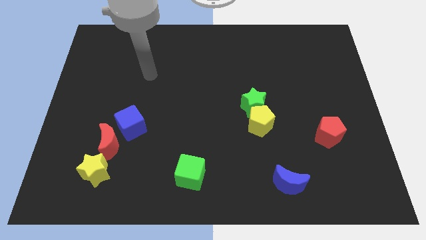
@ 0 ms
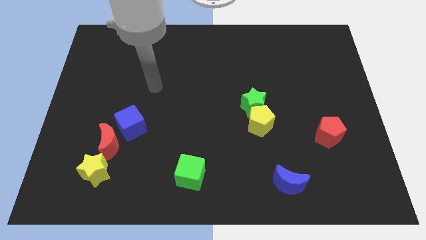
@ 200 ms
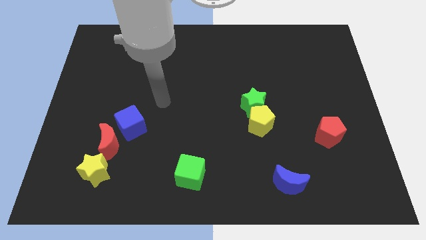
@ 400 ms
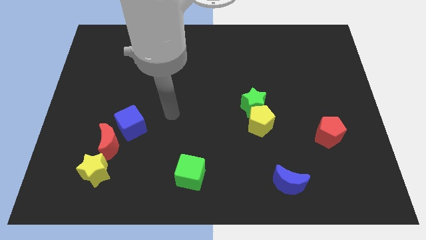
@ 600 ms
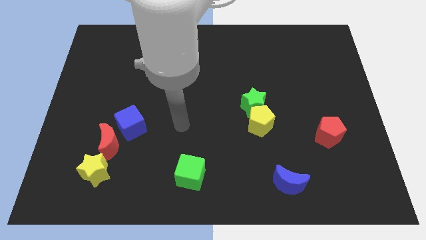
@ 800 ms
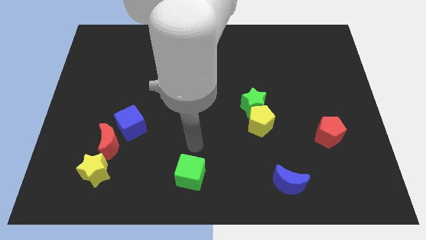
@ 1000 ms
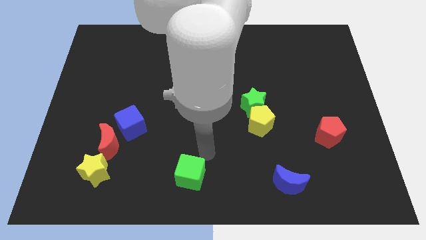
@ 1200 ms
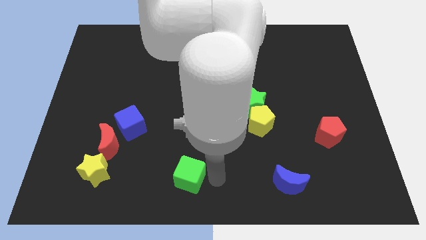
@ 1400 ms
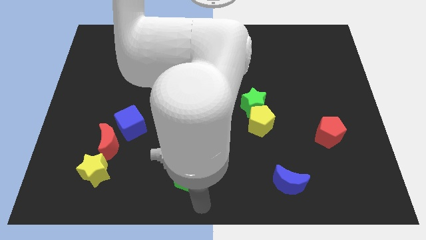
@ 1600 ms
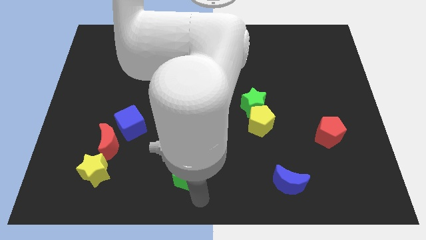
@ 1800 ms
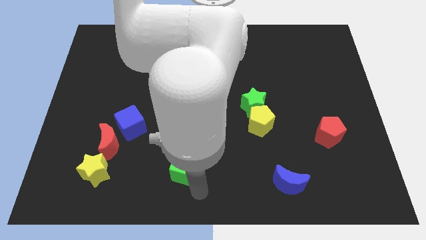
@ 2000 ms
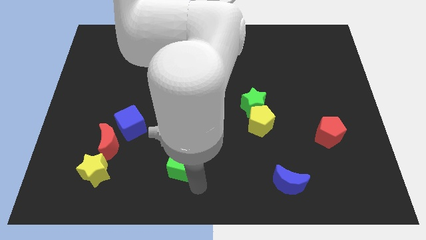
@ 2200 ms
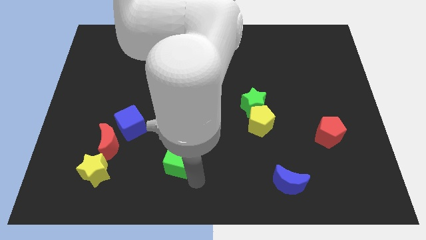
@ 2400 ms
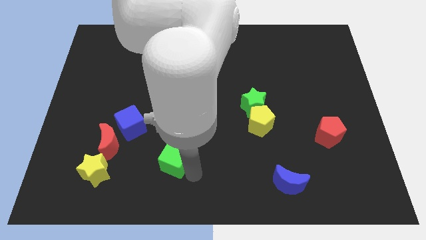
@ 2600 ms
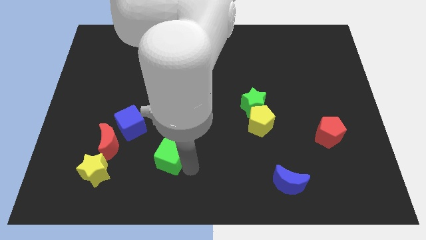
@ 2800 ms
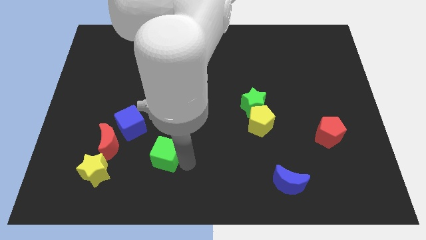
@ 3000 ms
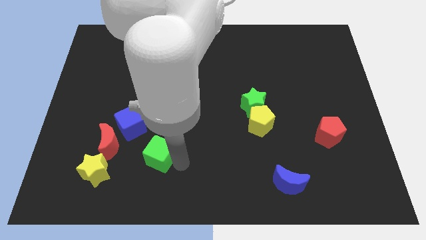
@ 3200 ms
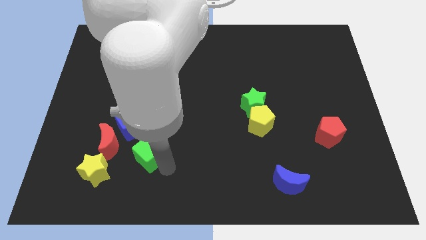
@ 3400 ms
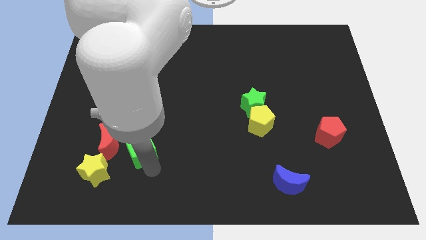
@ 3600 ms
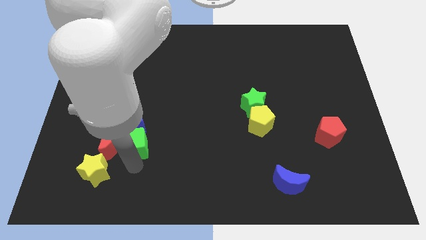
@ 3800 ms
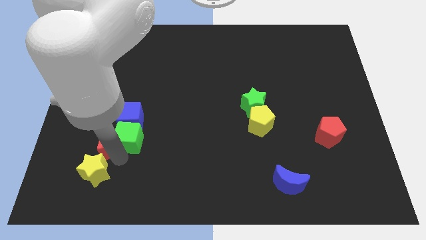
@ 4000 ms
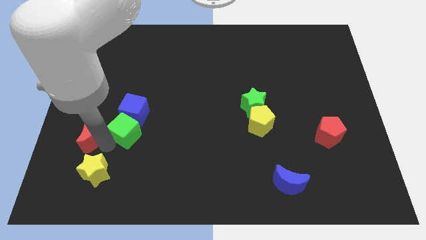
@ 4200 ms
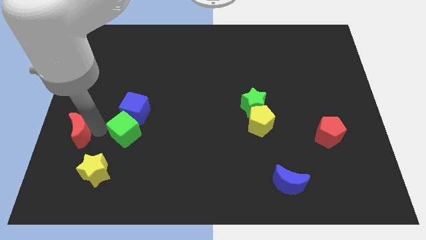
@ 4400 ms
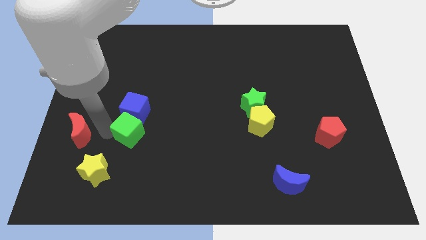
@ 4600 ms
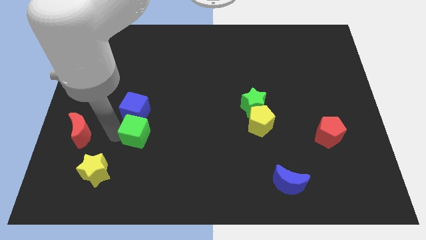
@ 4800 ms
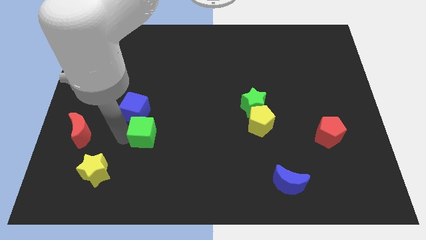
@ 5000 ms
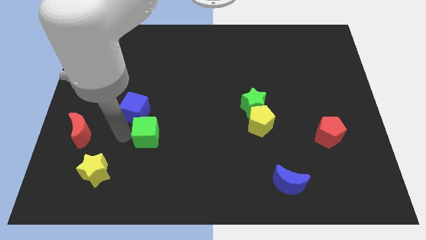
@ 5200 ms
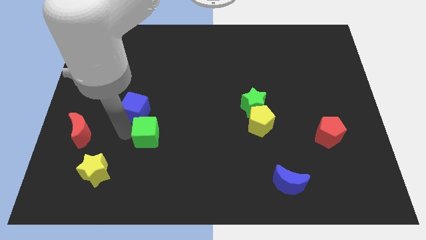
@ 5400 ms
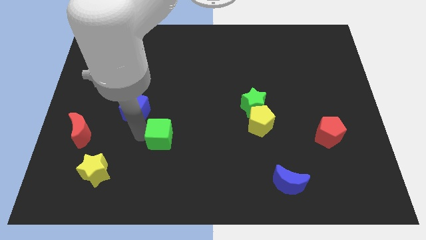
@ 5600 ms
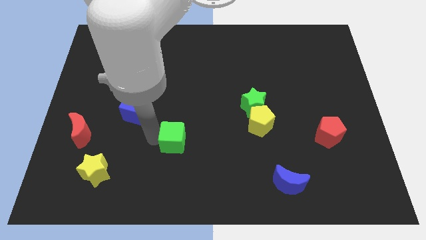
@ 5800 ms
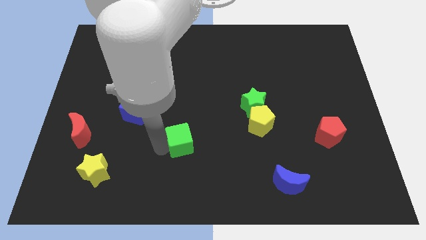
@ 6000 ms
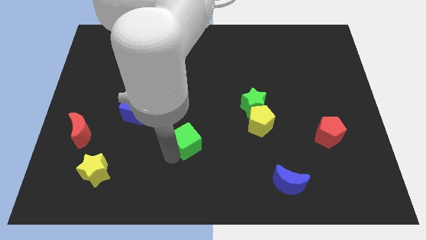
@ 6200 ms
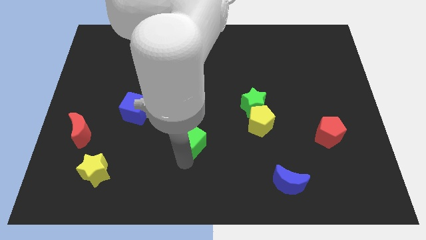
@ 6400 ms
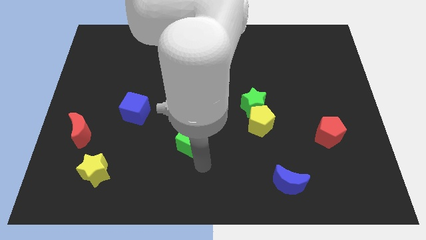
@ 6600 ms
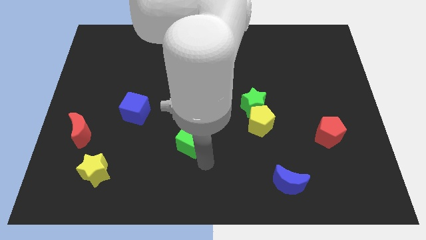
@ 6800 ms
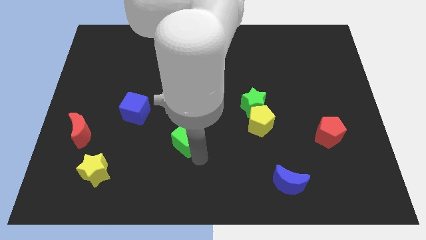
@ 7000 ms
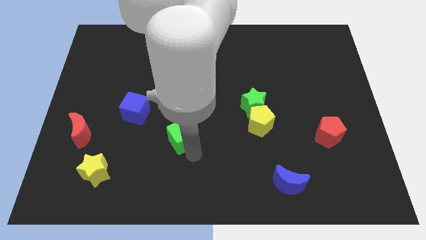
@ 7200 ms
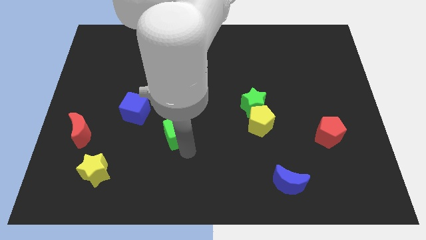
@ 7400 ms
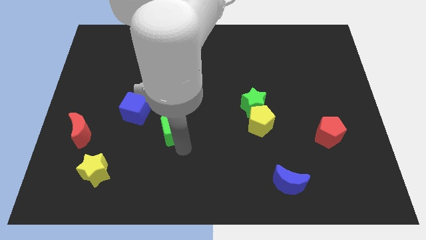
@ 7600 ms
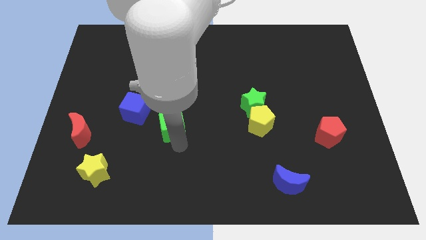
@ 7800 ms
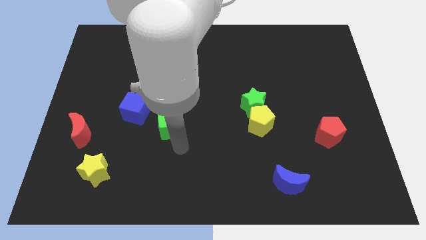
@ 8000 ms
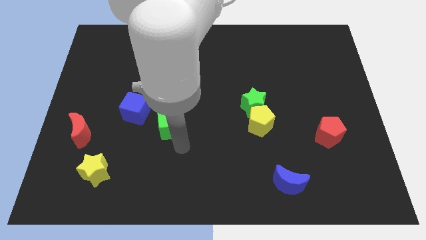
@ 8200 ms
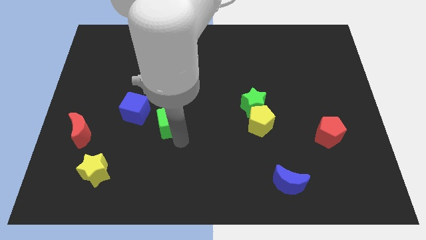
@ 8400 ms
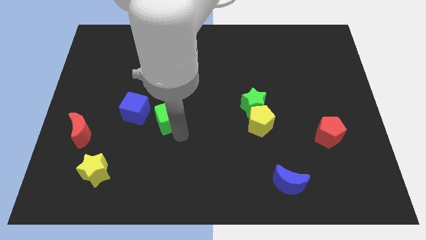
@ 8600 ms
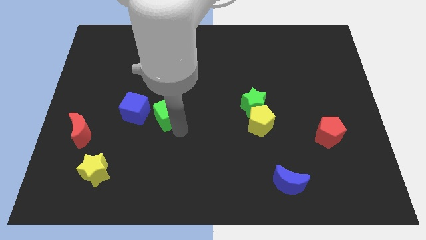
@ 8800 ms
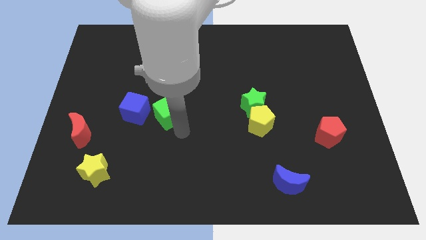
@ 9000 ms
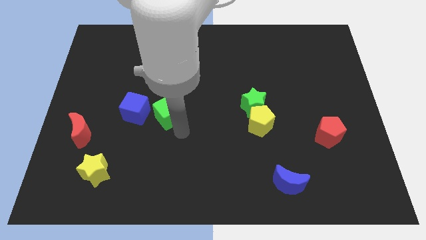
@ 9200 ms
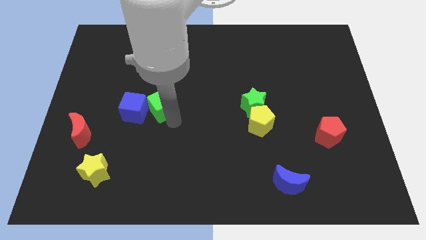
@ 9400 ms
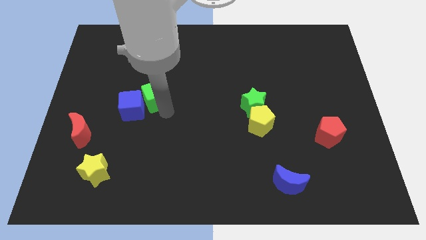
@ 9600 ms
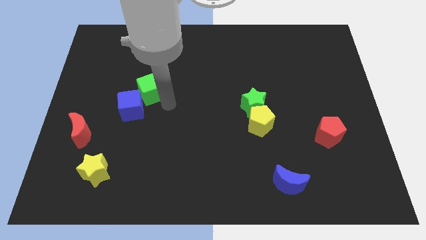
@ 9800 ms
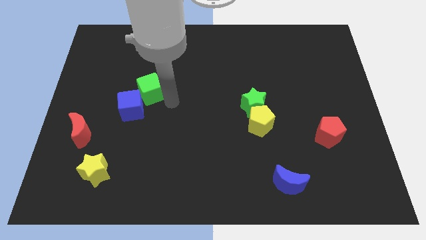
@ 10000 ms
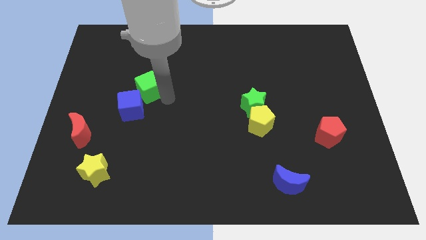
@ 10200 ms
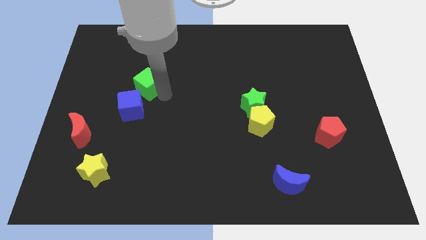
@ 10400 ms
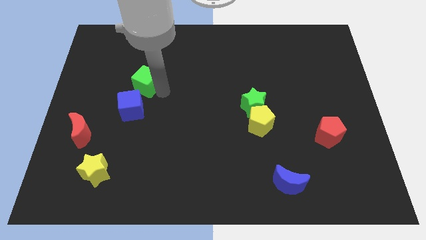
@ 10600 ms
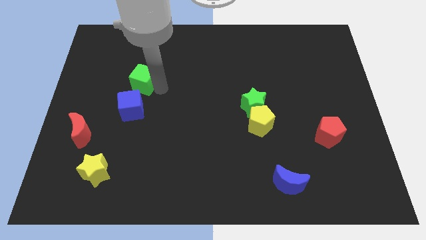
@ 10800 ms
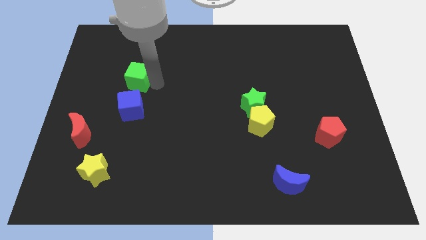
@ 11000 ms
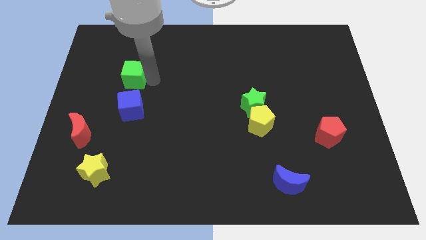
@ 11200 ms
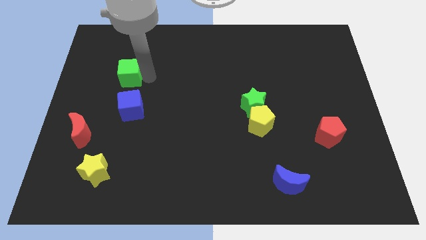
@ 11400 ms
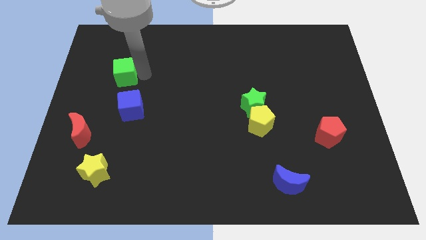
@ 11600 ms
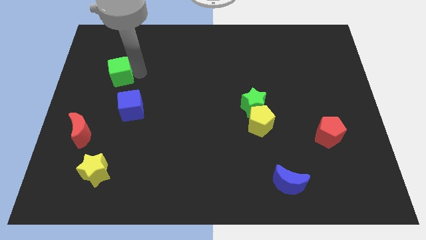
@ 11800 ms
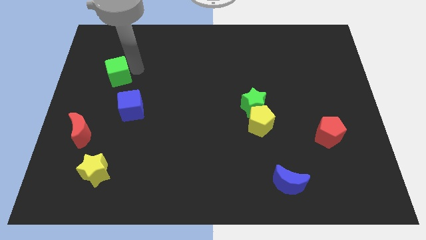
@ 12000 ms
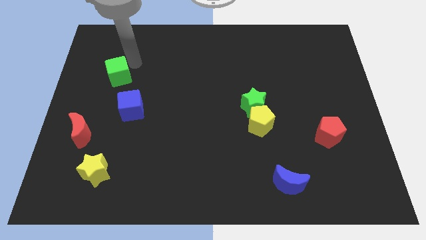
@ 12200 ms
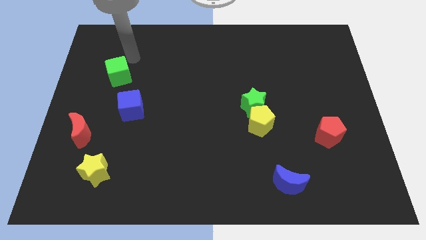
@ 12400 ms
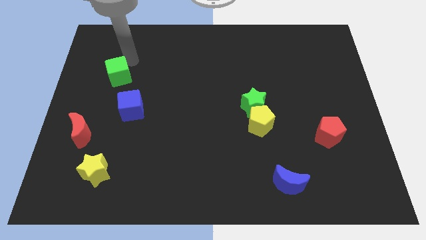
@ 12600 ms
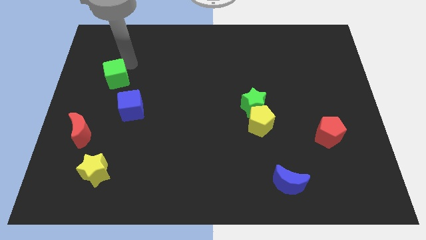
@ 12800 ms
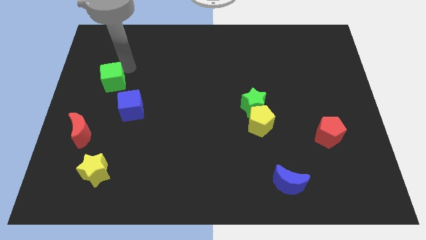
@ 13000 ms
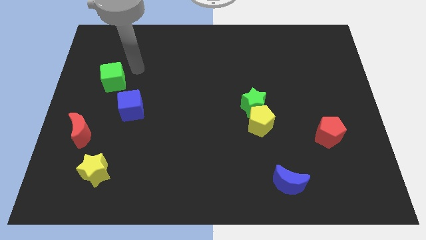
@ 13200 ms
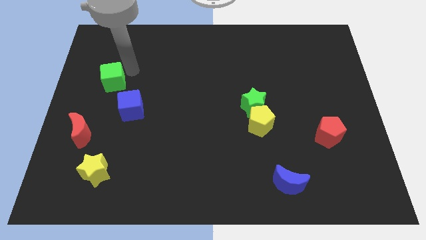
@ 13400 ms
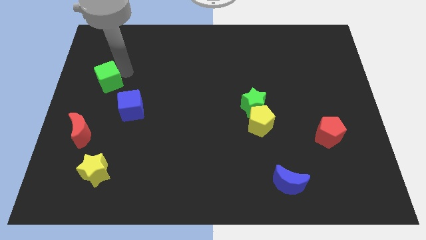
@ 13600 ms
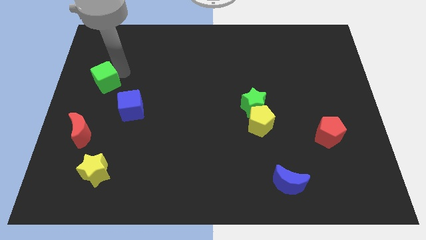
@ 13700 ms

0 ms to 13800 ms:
slide the green cube to the center left
